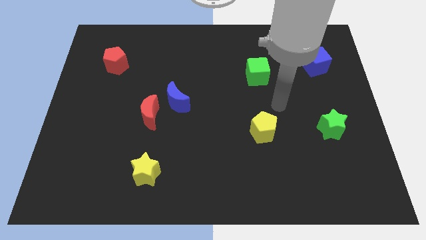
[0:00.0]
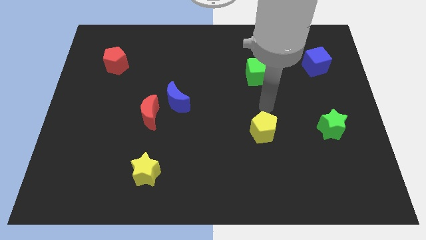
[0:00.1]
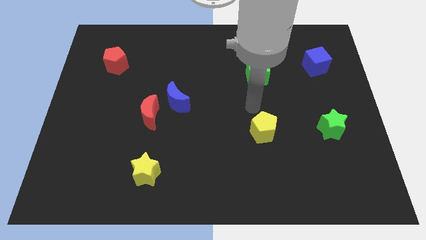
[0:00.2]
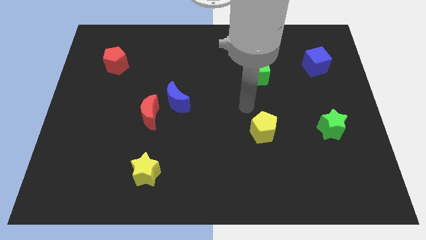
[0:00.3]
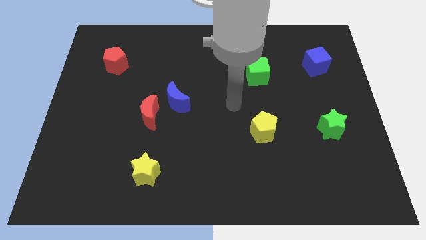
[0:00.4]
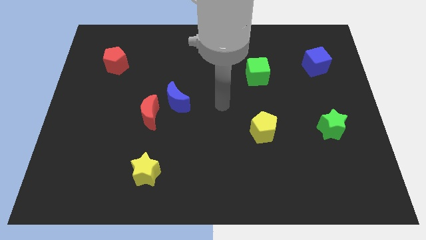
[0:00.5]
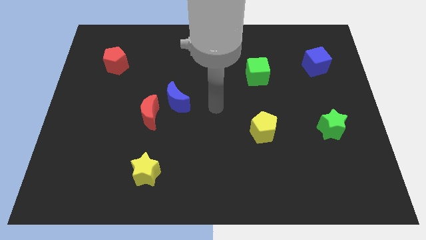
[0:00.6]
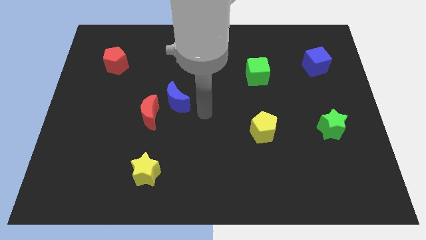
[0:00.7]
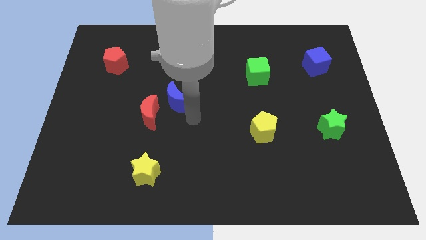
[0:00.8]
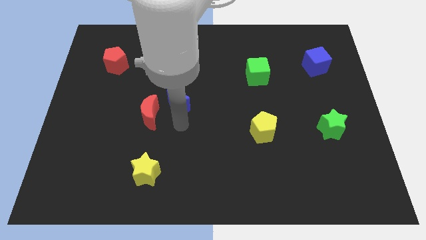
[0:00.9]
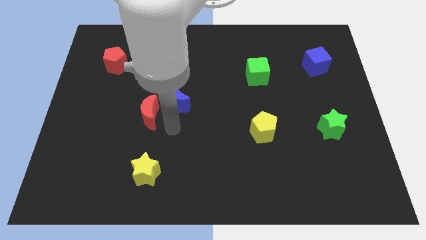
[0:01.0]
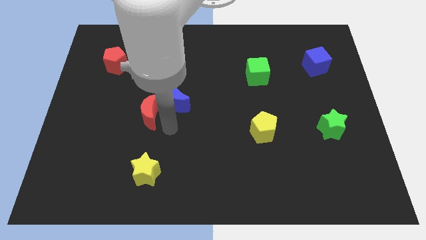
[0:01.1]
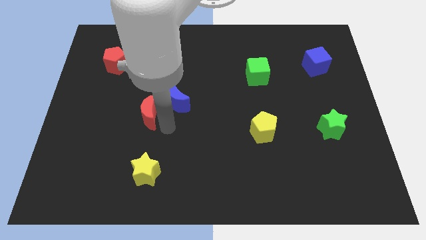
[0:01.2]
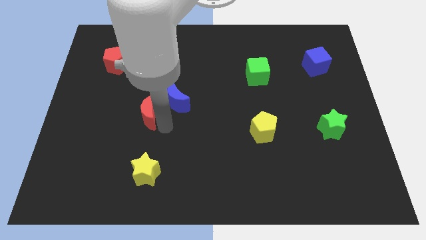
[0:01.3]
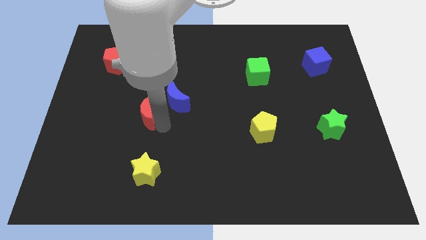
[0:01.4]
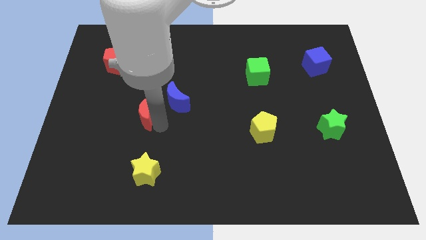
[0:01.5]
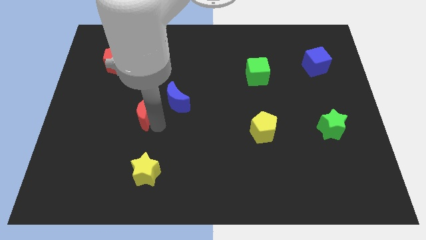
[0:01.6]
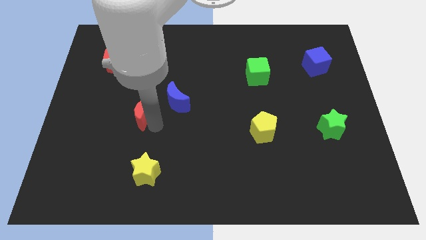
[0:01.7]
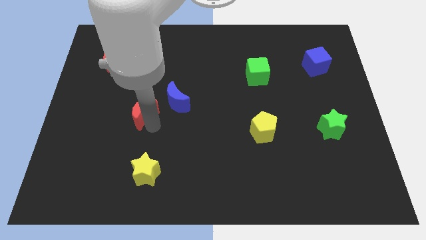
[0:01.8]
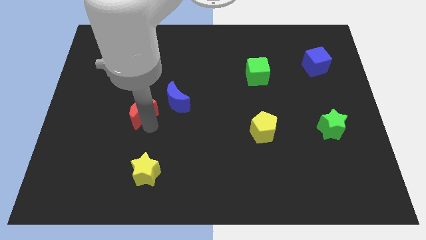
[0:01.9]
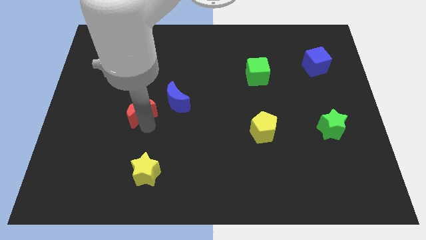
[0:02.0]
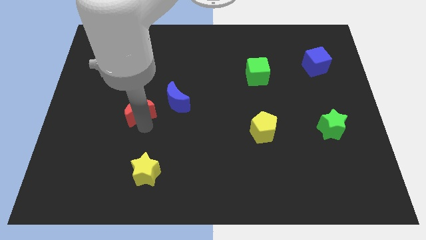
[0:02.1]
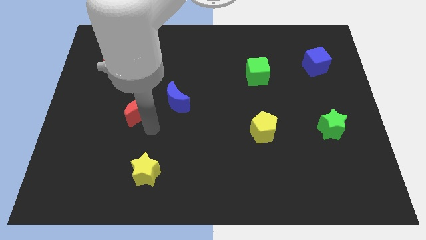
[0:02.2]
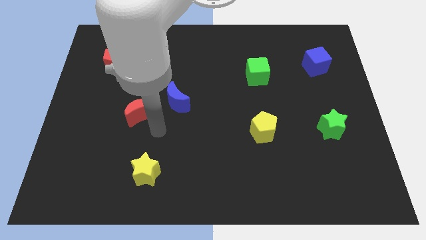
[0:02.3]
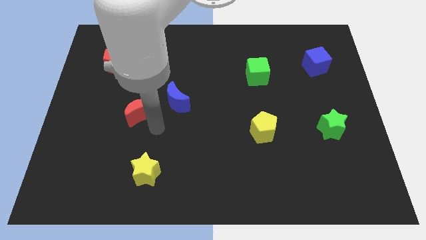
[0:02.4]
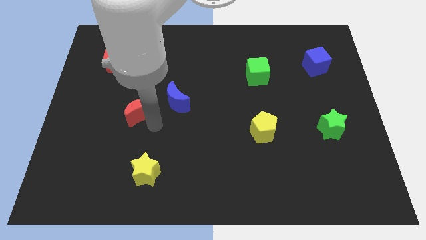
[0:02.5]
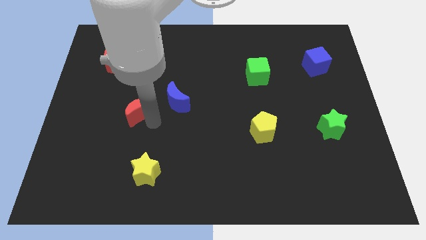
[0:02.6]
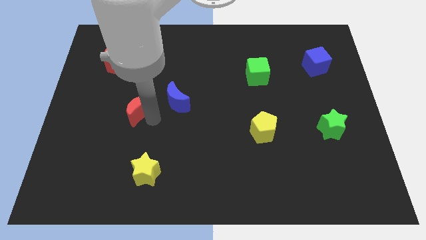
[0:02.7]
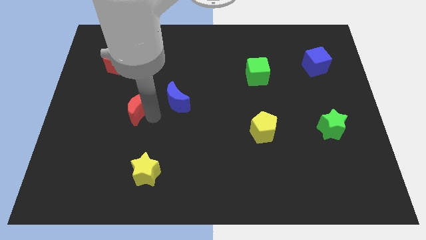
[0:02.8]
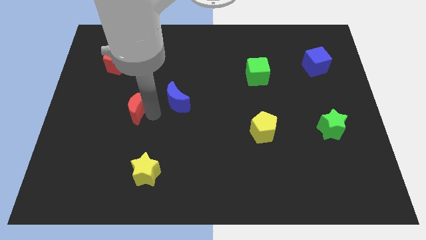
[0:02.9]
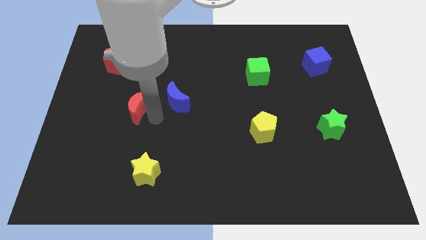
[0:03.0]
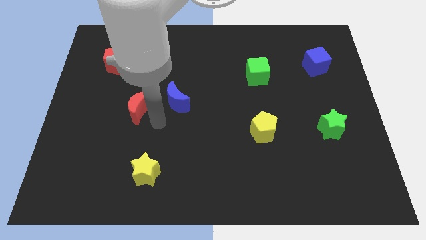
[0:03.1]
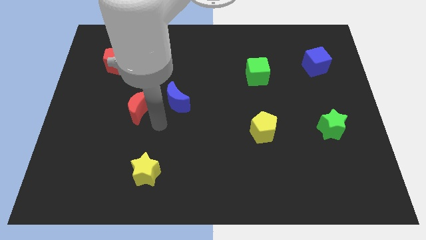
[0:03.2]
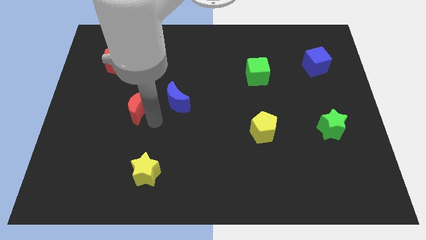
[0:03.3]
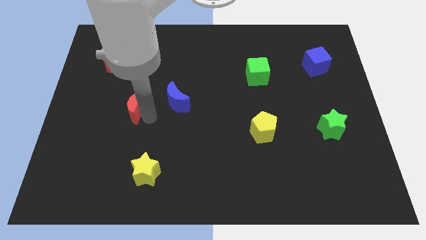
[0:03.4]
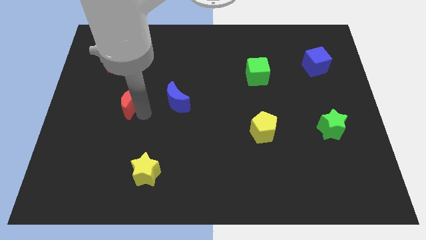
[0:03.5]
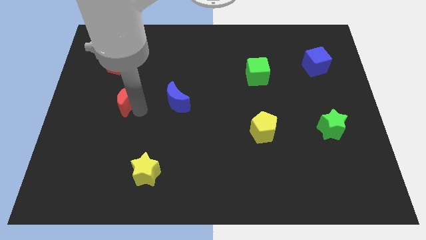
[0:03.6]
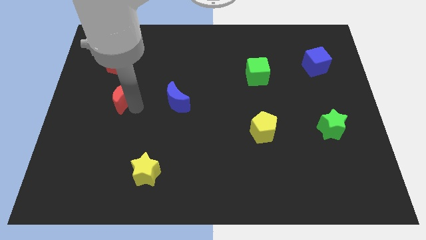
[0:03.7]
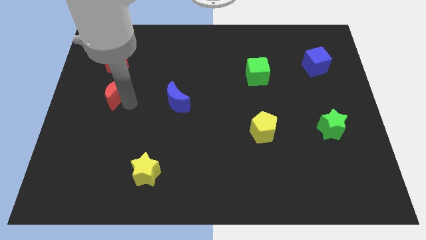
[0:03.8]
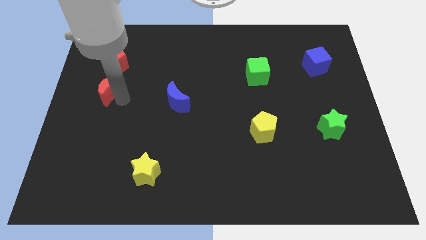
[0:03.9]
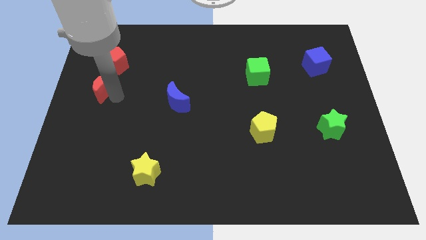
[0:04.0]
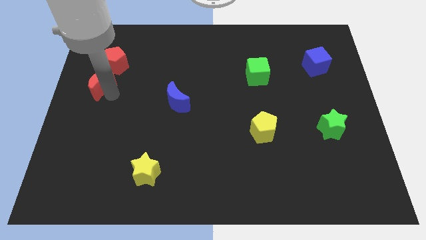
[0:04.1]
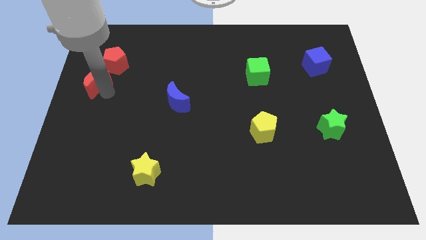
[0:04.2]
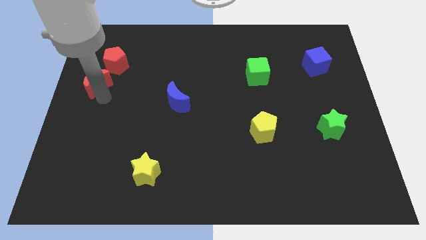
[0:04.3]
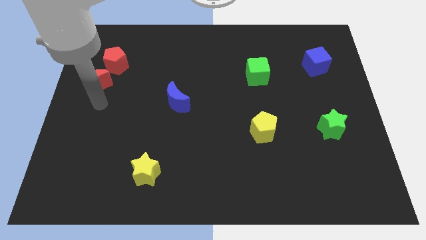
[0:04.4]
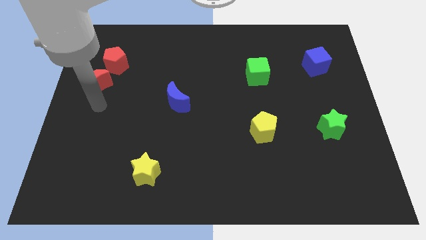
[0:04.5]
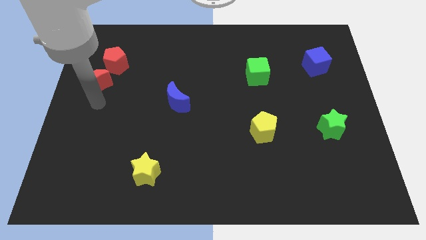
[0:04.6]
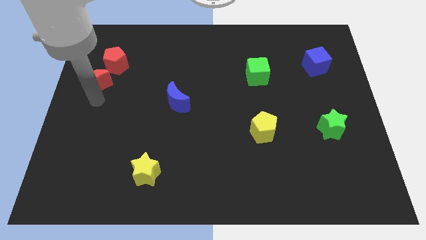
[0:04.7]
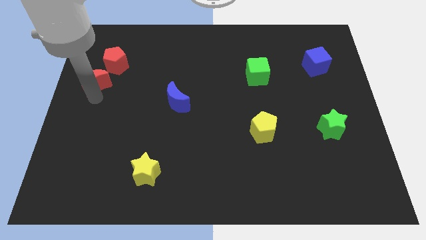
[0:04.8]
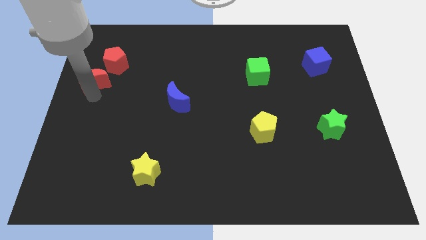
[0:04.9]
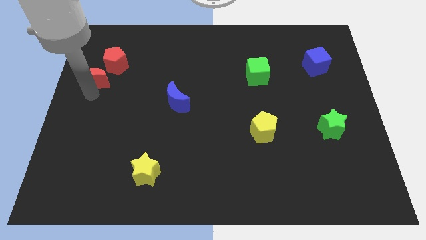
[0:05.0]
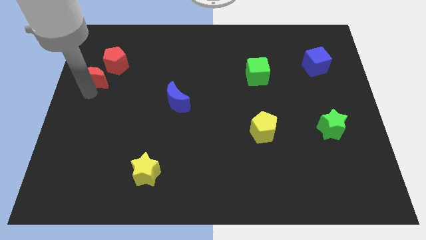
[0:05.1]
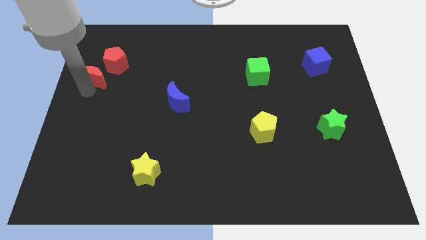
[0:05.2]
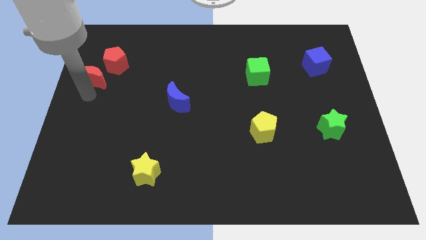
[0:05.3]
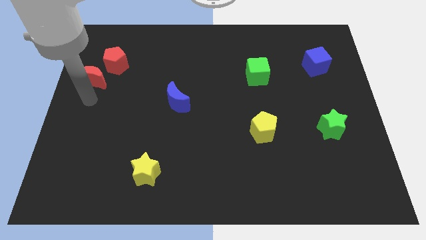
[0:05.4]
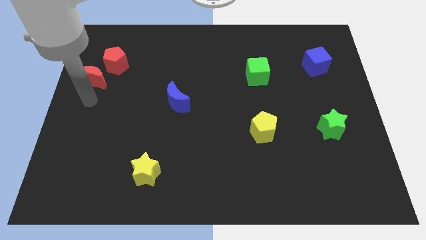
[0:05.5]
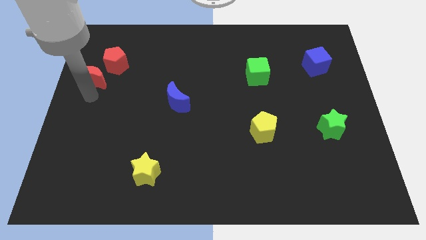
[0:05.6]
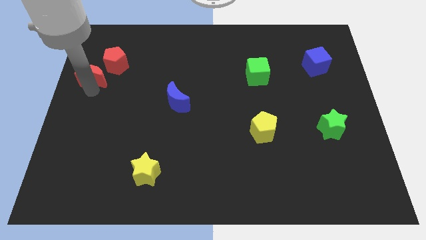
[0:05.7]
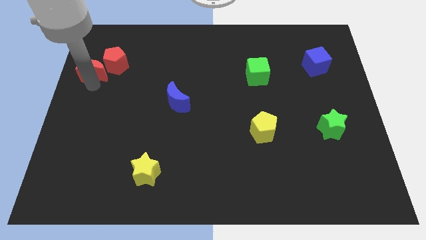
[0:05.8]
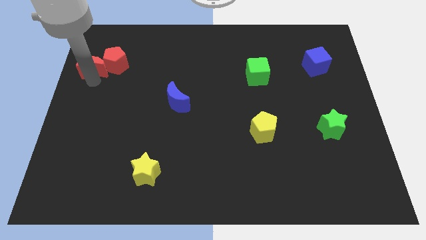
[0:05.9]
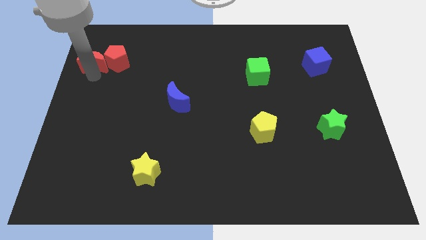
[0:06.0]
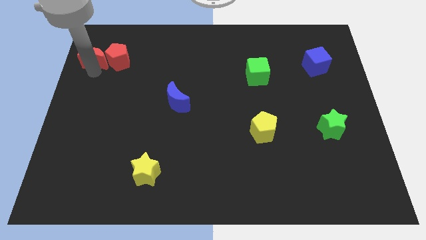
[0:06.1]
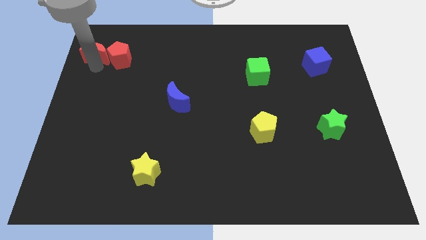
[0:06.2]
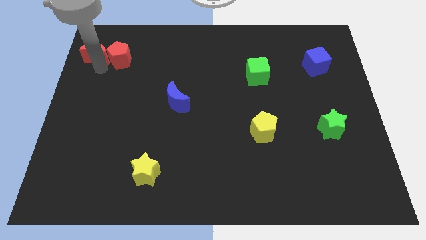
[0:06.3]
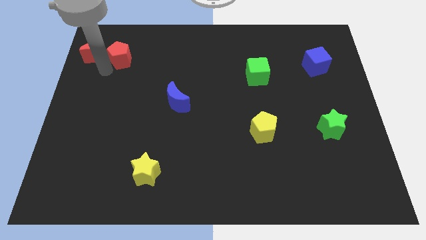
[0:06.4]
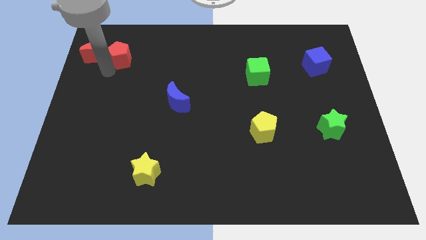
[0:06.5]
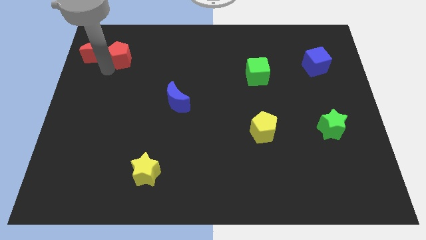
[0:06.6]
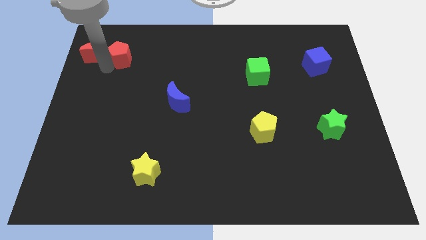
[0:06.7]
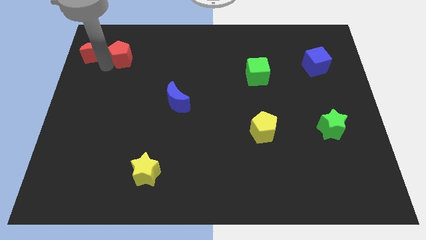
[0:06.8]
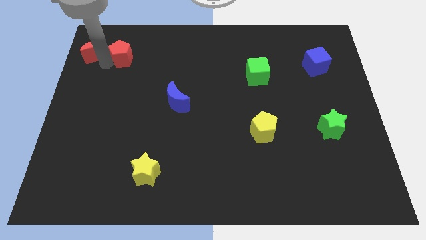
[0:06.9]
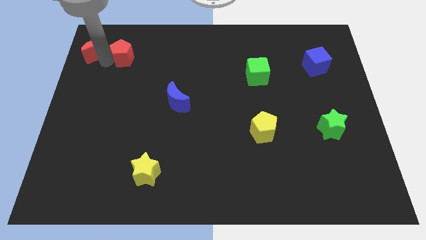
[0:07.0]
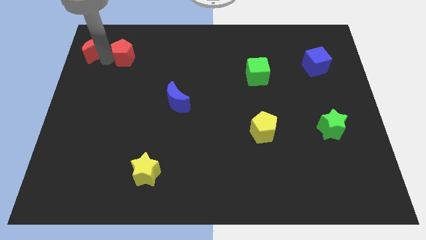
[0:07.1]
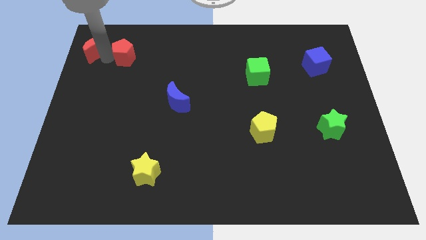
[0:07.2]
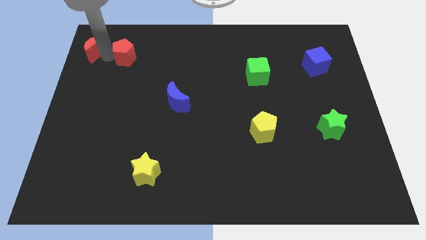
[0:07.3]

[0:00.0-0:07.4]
move the red moon to the top left
